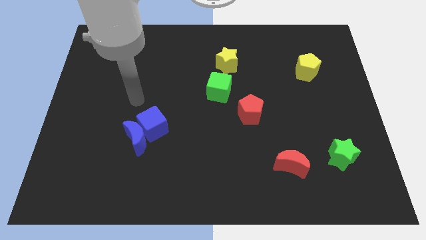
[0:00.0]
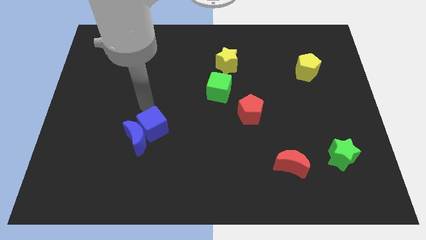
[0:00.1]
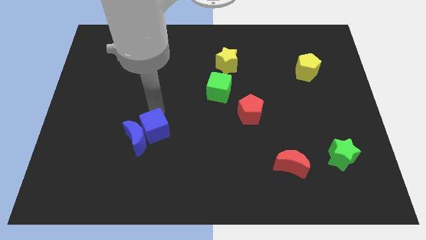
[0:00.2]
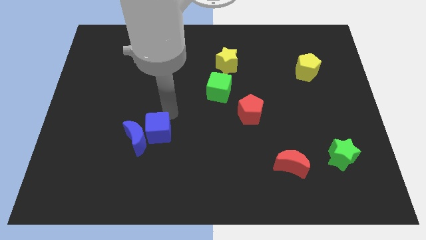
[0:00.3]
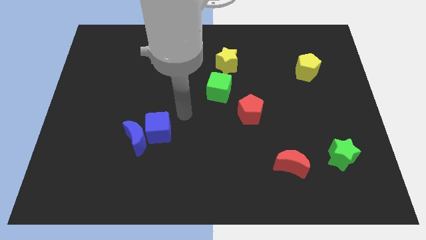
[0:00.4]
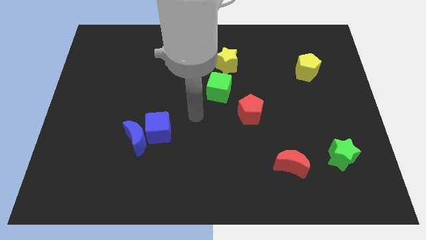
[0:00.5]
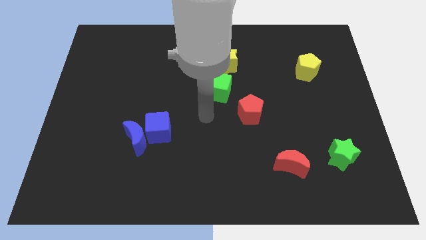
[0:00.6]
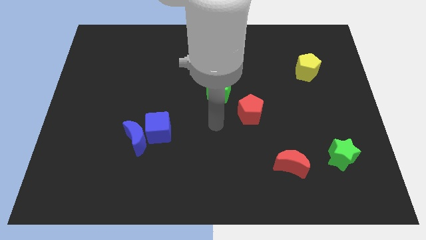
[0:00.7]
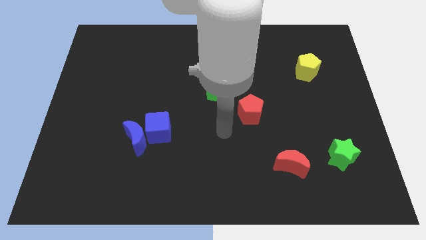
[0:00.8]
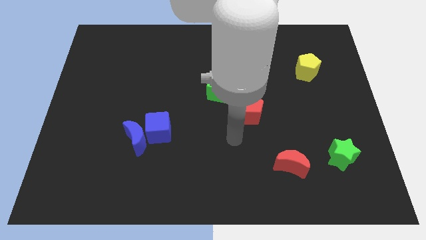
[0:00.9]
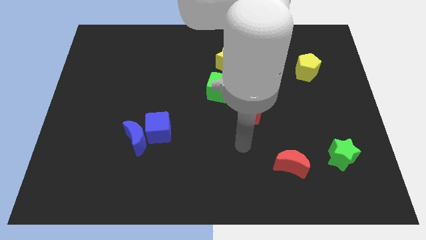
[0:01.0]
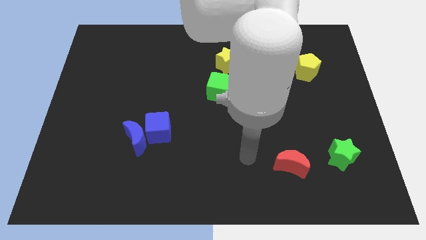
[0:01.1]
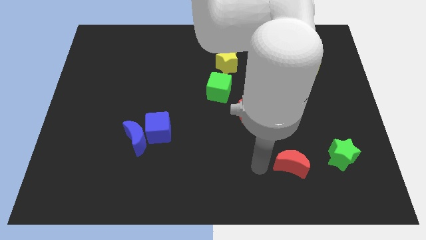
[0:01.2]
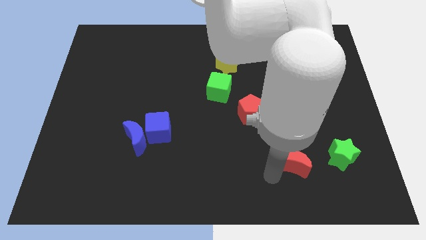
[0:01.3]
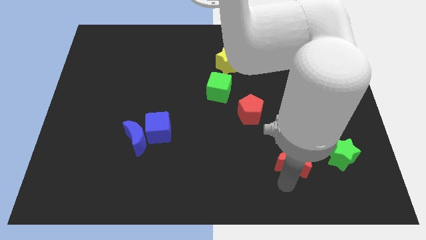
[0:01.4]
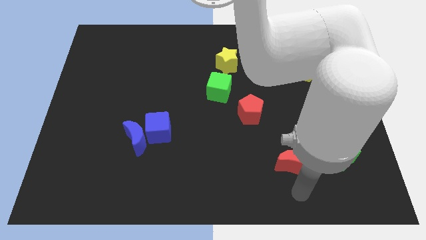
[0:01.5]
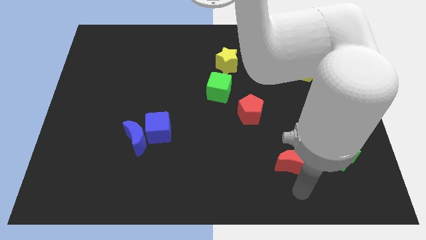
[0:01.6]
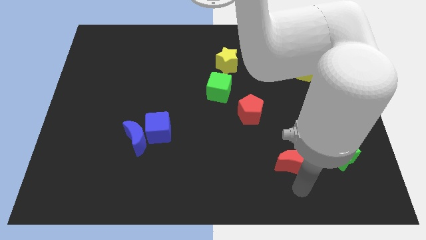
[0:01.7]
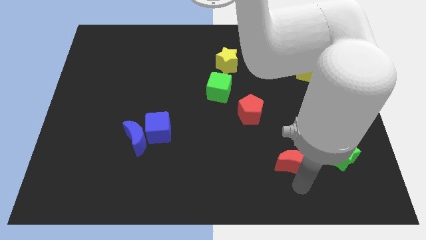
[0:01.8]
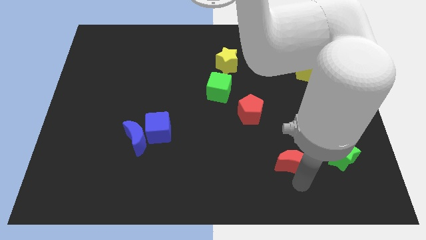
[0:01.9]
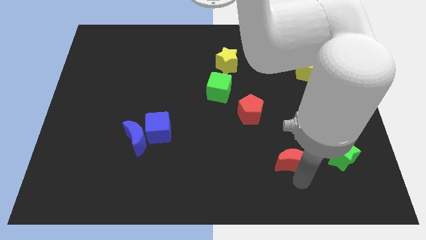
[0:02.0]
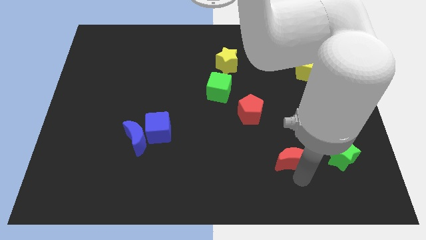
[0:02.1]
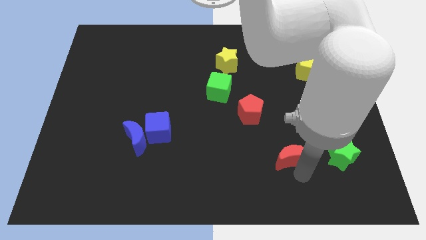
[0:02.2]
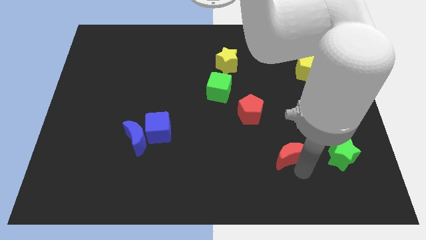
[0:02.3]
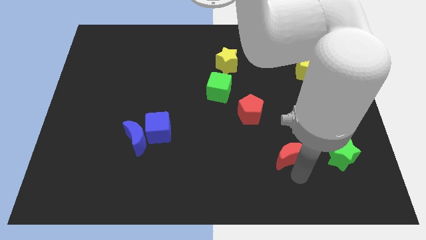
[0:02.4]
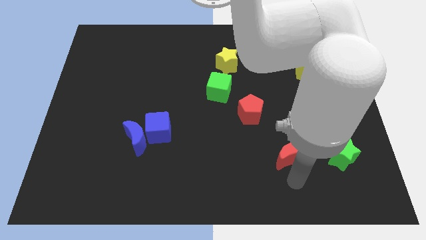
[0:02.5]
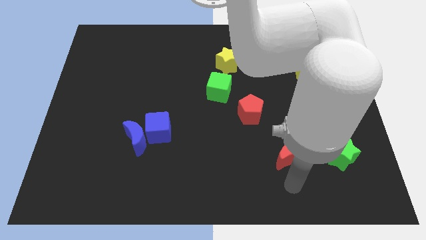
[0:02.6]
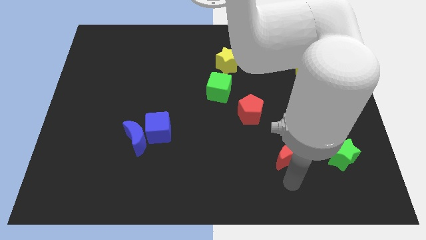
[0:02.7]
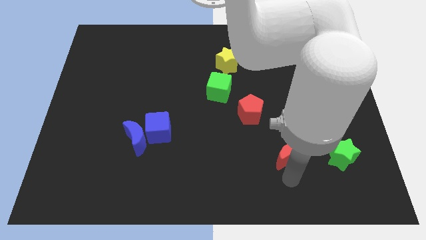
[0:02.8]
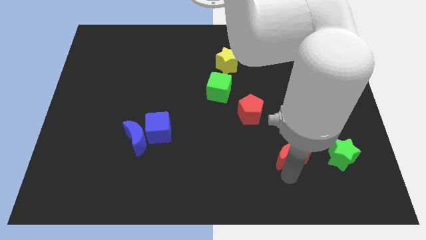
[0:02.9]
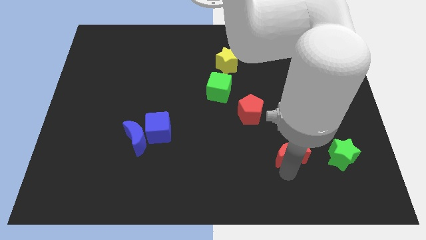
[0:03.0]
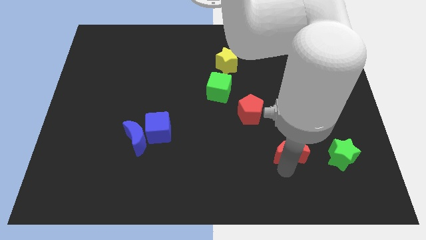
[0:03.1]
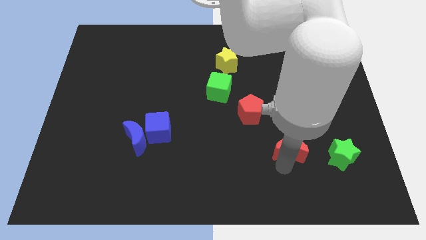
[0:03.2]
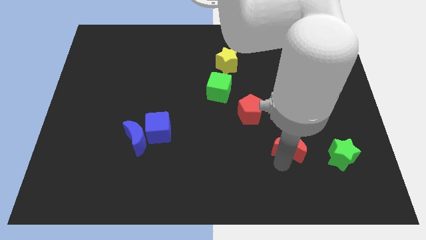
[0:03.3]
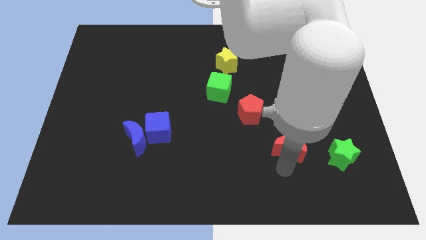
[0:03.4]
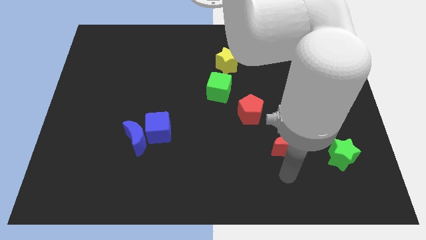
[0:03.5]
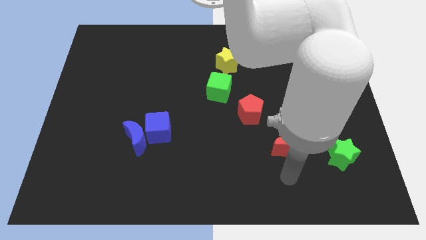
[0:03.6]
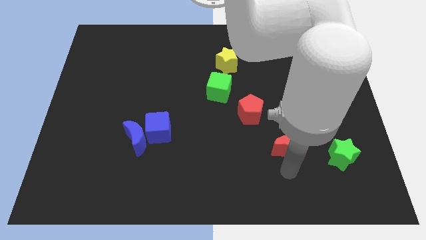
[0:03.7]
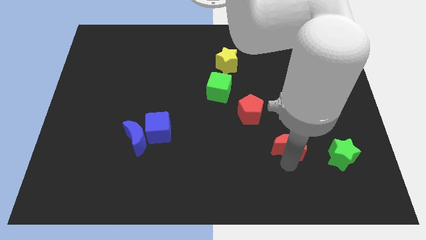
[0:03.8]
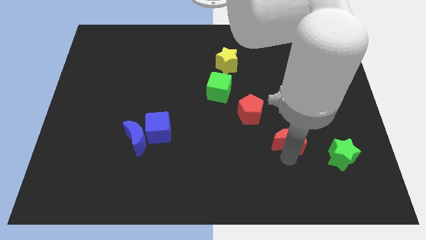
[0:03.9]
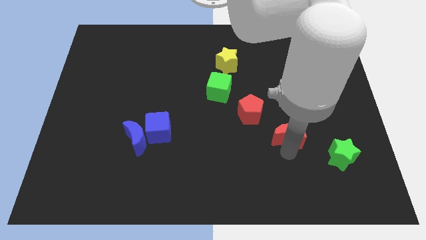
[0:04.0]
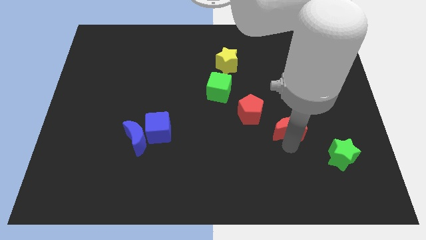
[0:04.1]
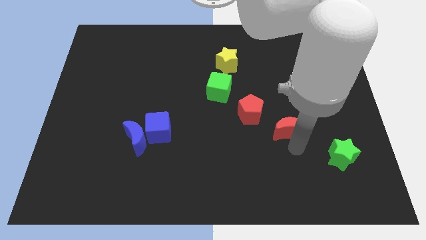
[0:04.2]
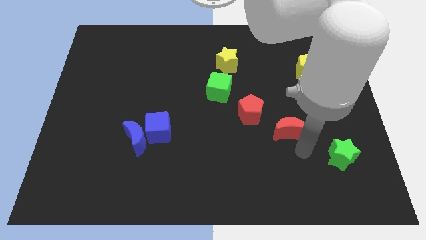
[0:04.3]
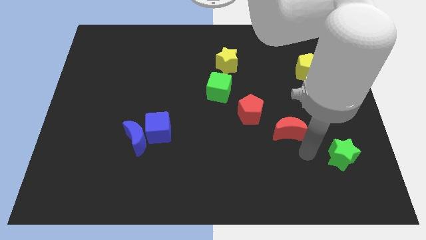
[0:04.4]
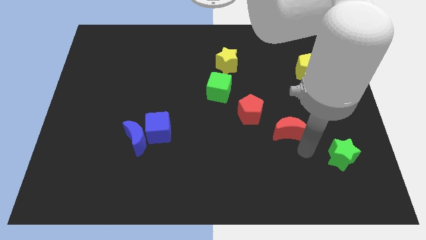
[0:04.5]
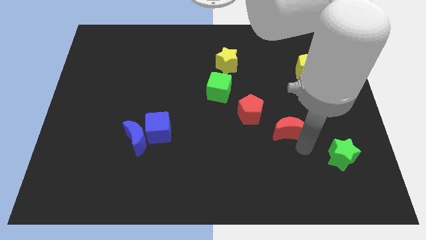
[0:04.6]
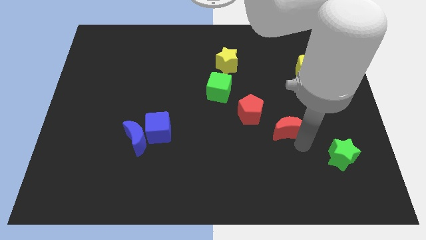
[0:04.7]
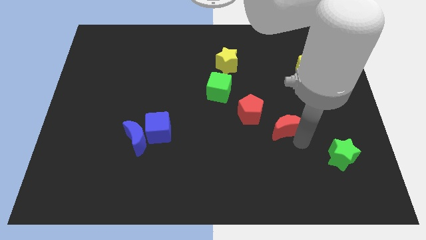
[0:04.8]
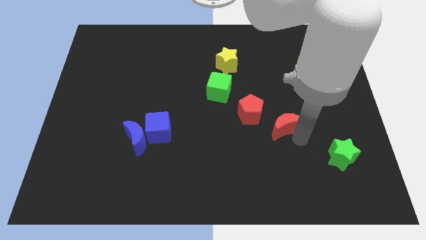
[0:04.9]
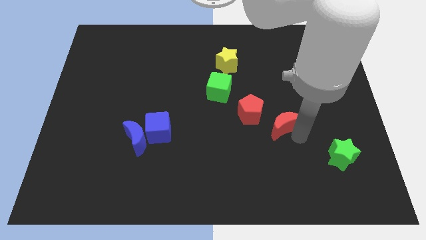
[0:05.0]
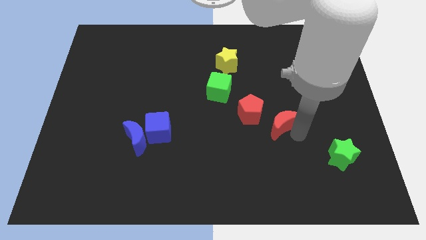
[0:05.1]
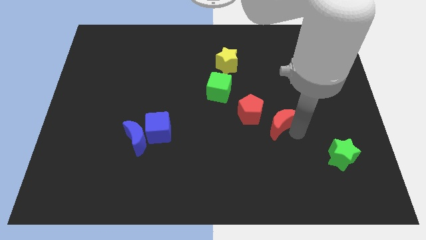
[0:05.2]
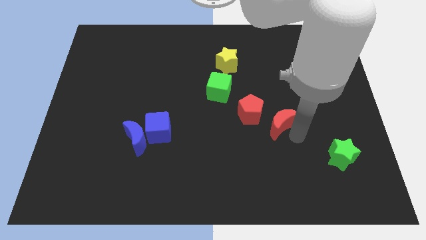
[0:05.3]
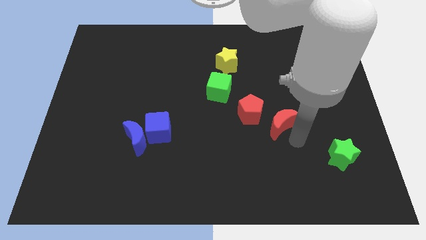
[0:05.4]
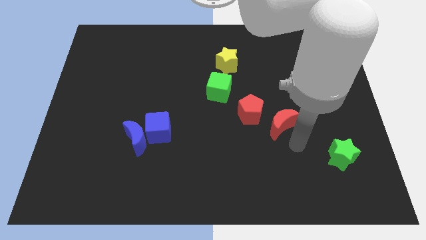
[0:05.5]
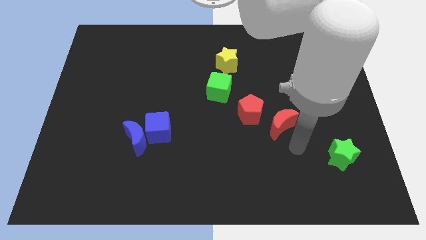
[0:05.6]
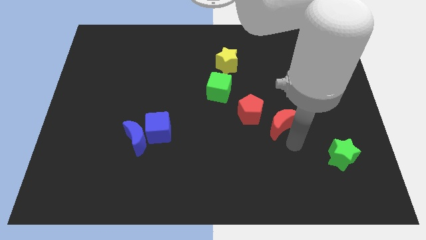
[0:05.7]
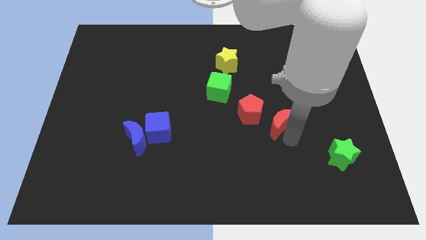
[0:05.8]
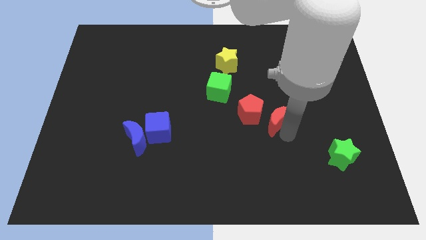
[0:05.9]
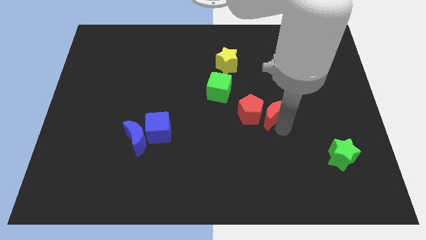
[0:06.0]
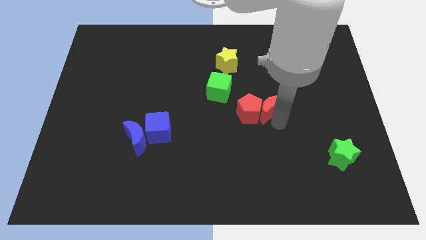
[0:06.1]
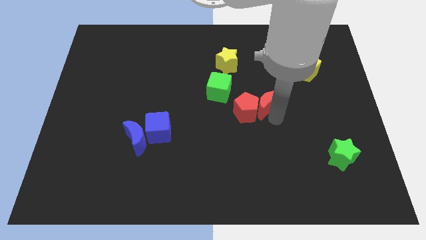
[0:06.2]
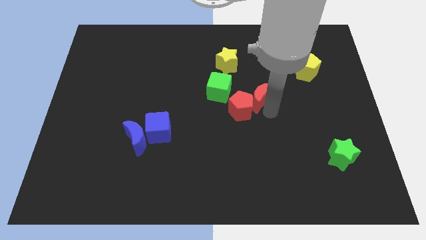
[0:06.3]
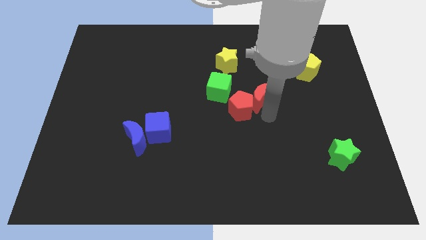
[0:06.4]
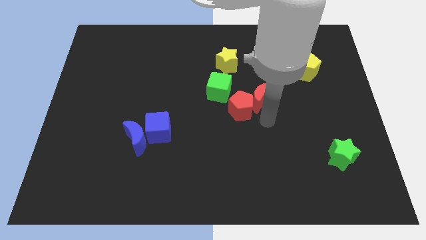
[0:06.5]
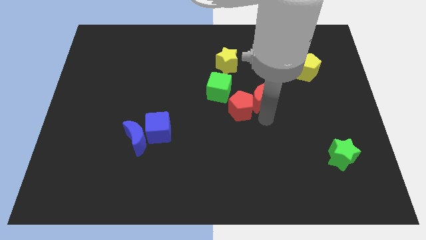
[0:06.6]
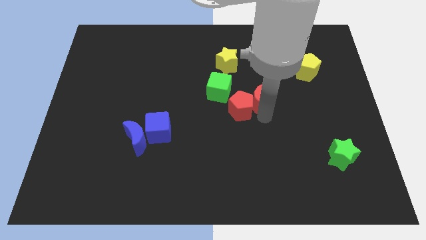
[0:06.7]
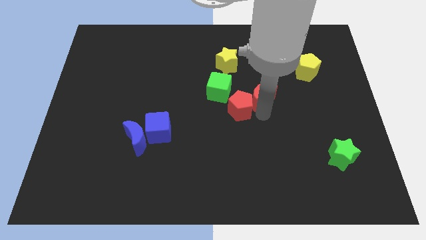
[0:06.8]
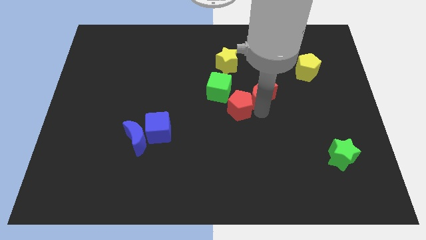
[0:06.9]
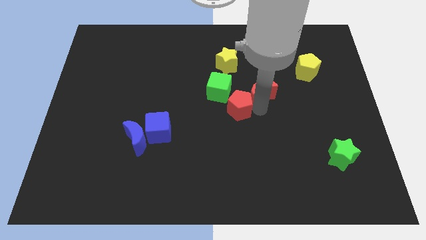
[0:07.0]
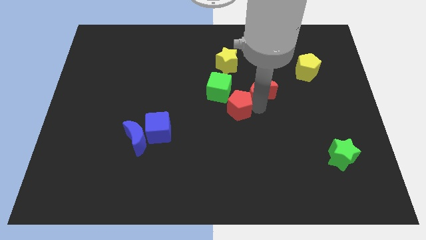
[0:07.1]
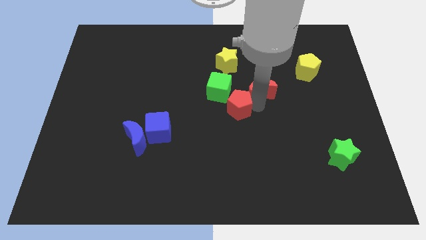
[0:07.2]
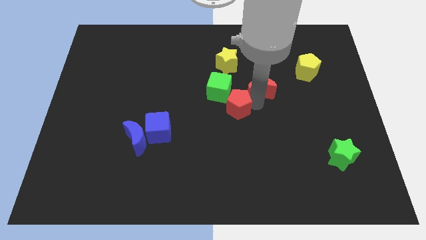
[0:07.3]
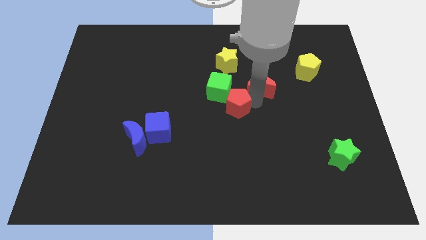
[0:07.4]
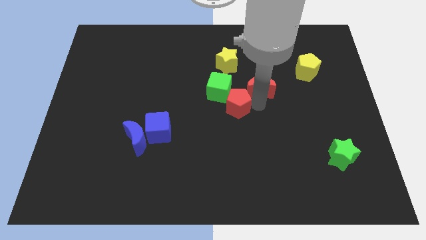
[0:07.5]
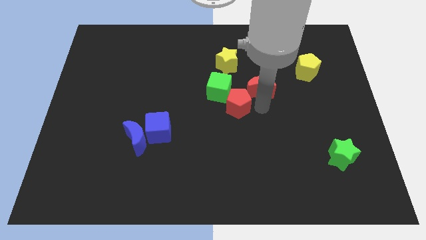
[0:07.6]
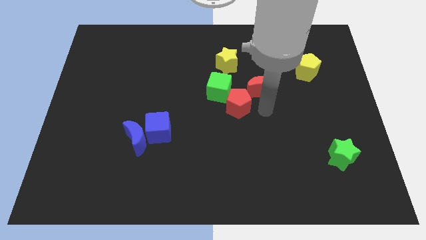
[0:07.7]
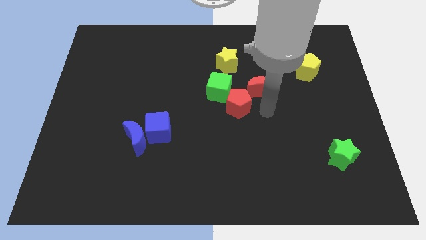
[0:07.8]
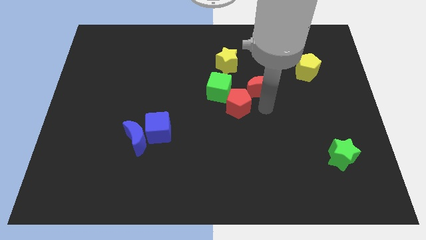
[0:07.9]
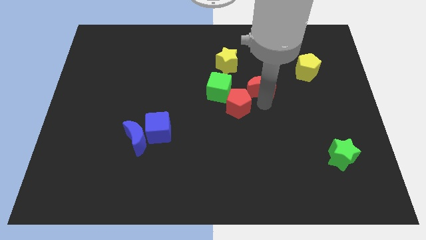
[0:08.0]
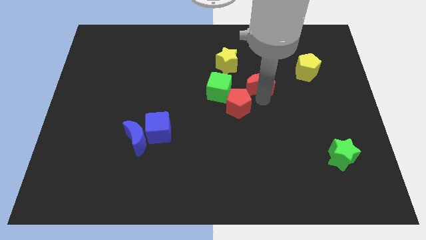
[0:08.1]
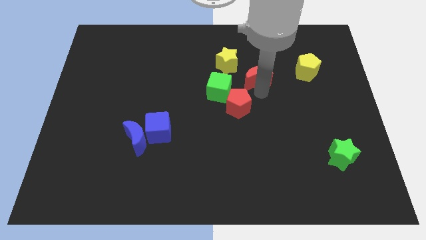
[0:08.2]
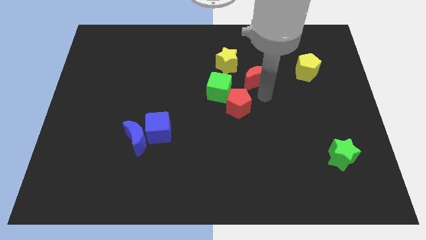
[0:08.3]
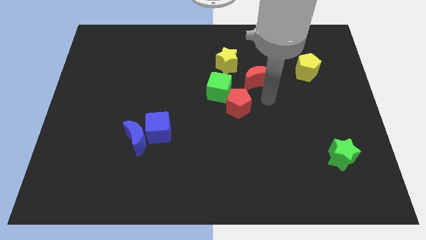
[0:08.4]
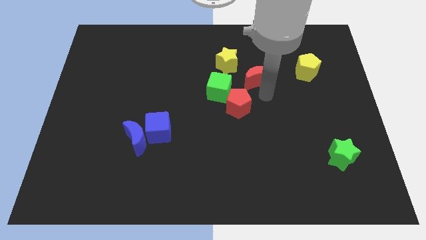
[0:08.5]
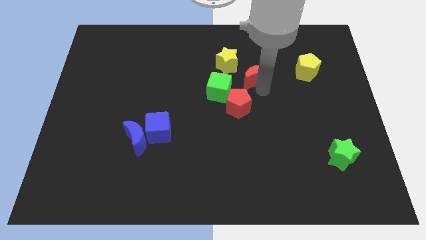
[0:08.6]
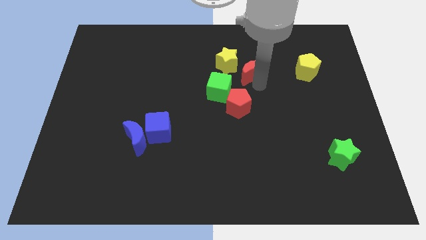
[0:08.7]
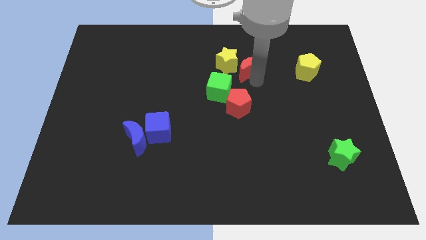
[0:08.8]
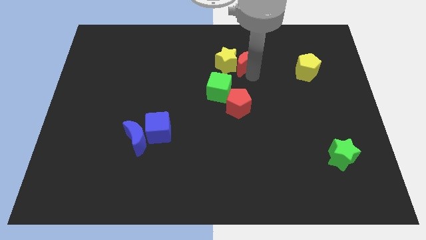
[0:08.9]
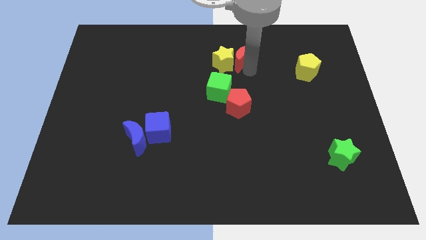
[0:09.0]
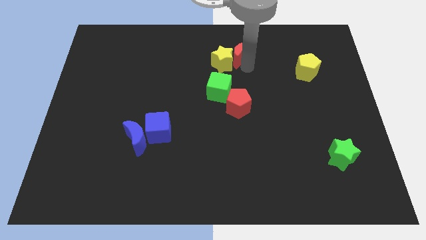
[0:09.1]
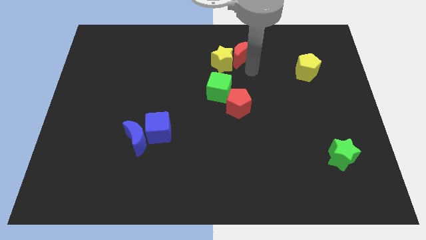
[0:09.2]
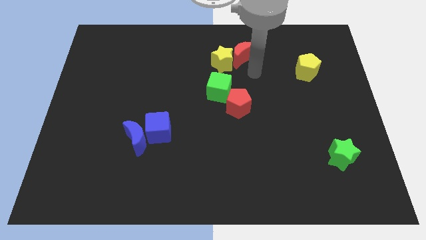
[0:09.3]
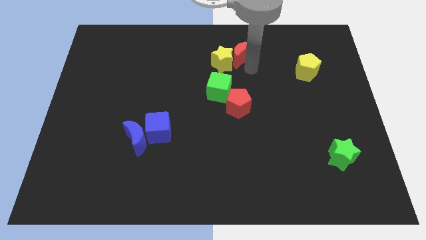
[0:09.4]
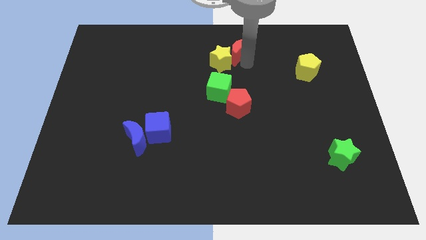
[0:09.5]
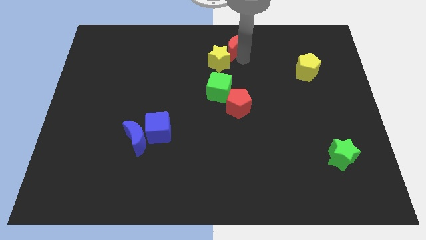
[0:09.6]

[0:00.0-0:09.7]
push the red moon to the top side
